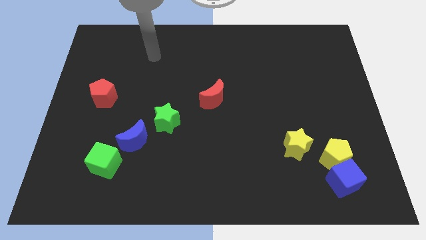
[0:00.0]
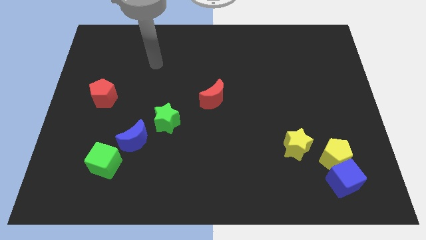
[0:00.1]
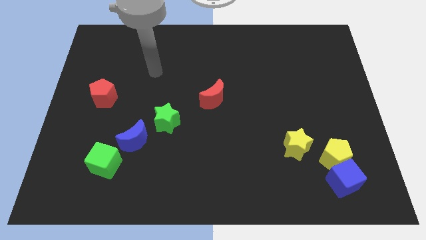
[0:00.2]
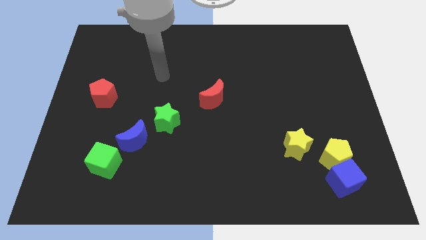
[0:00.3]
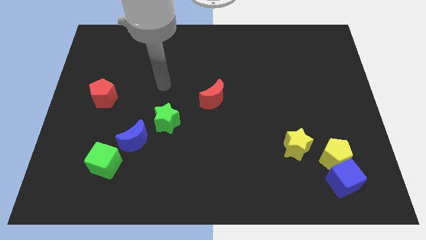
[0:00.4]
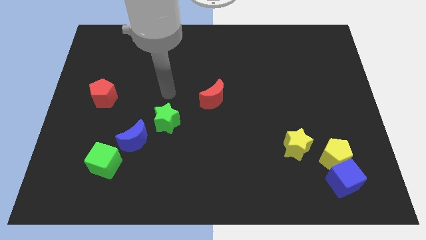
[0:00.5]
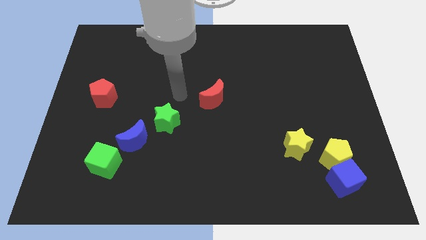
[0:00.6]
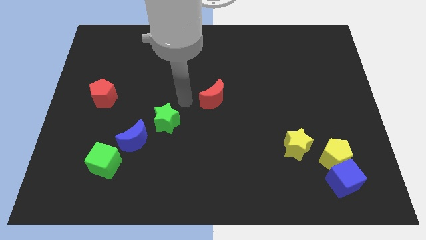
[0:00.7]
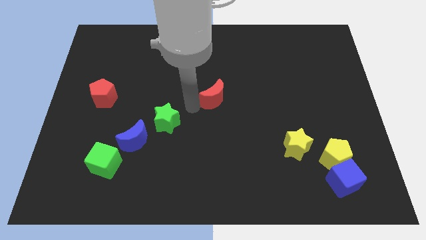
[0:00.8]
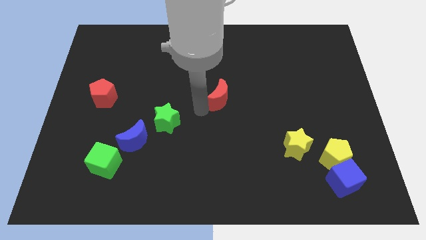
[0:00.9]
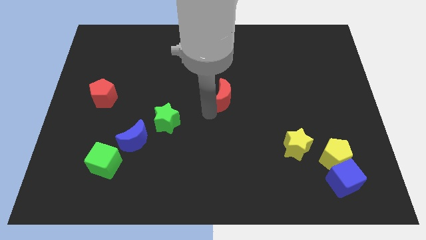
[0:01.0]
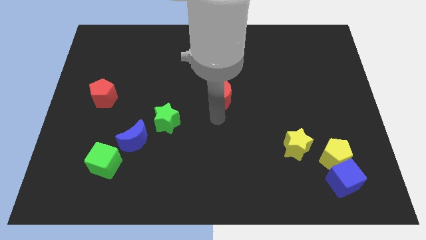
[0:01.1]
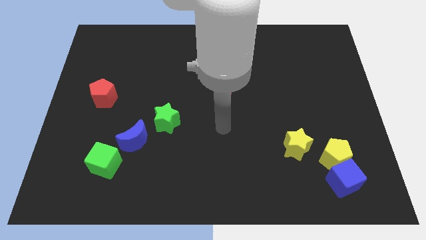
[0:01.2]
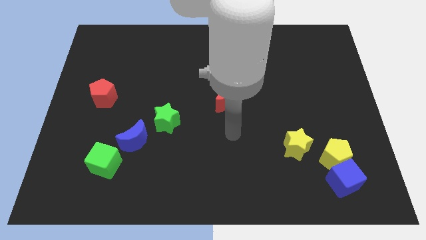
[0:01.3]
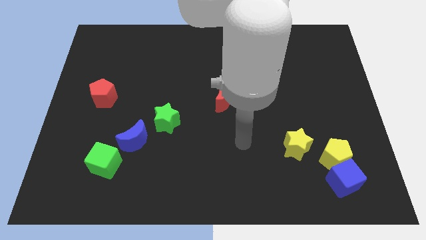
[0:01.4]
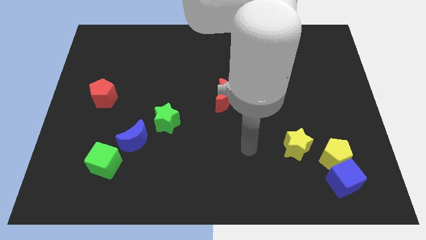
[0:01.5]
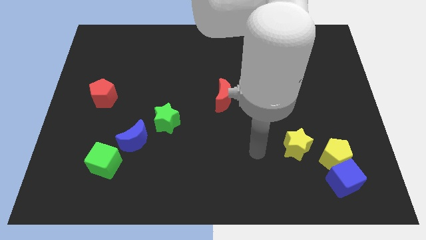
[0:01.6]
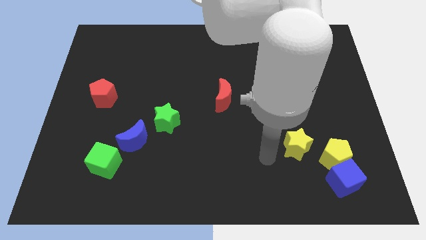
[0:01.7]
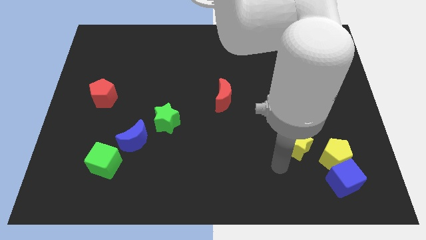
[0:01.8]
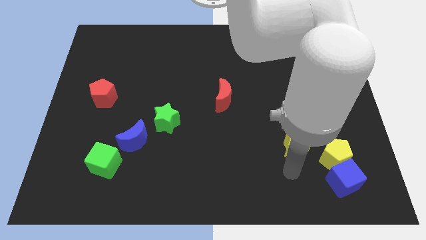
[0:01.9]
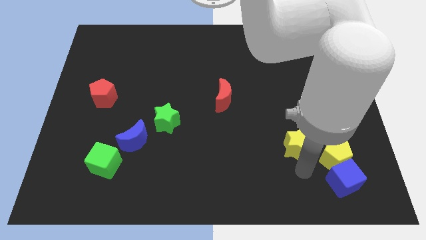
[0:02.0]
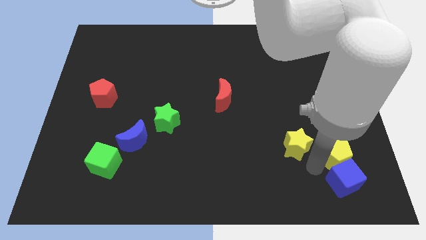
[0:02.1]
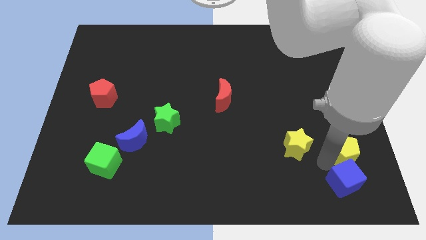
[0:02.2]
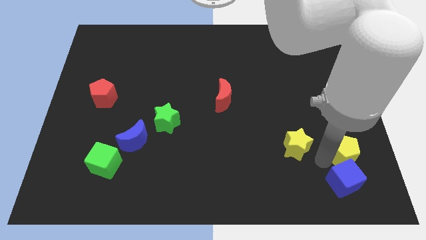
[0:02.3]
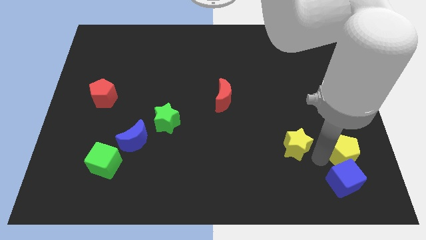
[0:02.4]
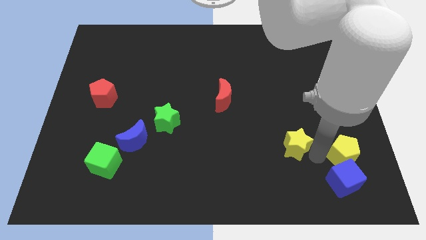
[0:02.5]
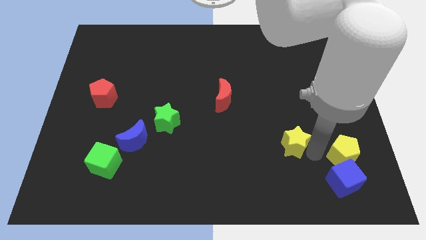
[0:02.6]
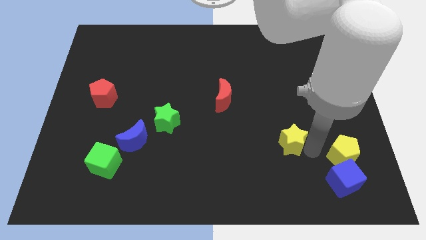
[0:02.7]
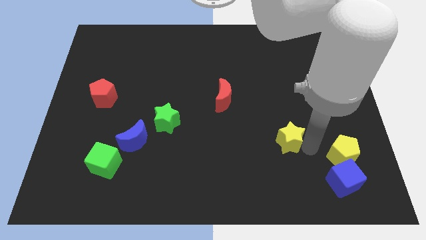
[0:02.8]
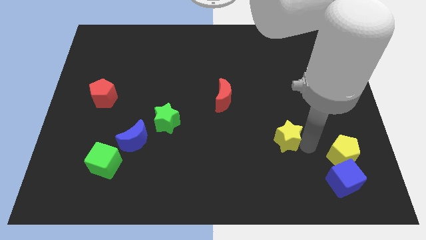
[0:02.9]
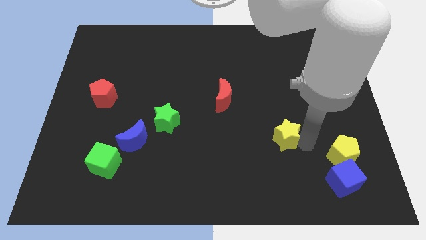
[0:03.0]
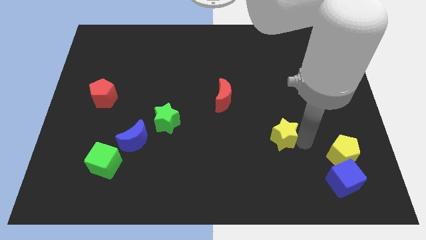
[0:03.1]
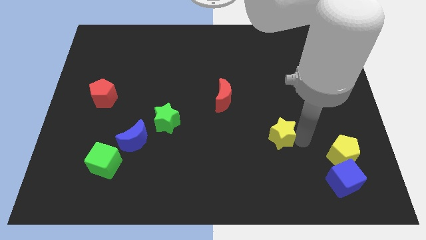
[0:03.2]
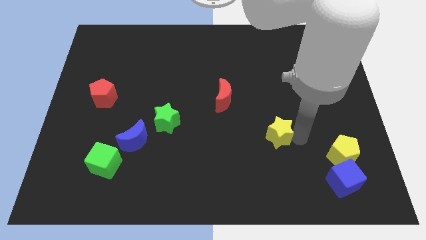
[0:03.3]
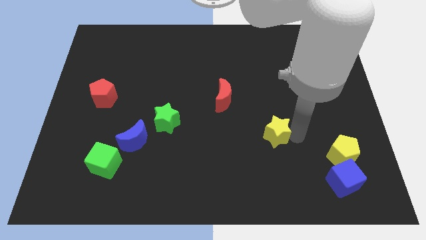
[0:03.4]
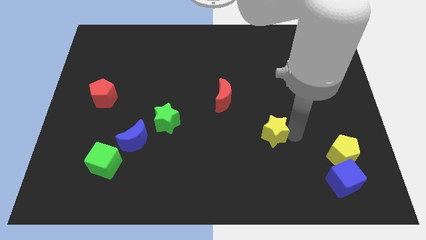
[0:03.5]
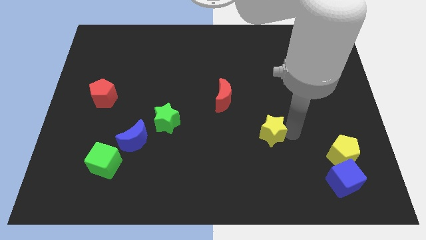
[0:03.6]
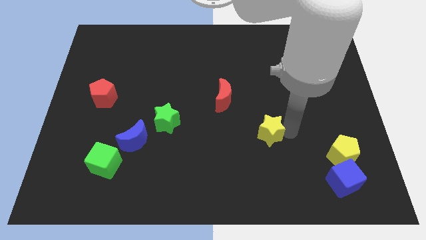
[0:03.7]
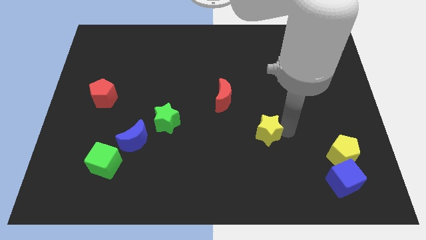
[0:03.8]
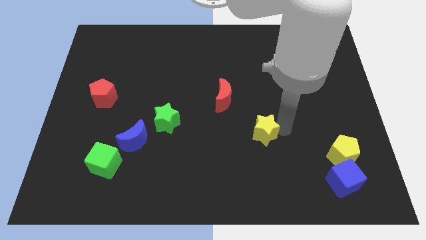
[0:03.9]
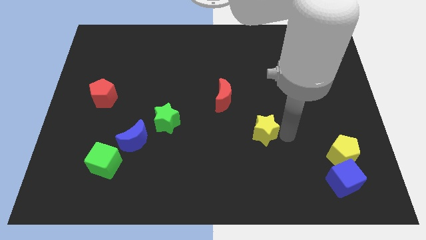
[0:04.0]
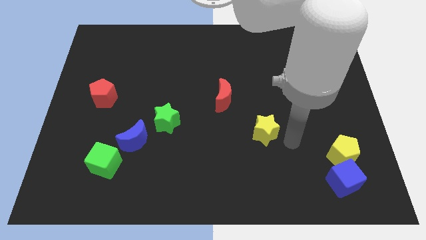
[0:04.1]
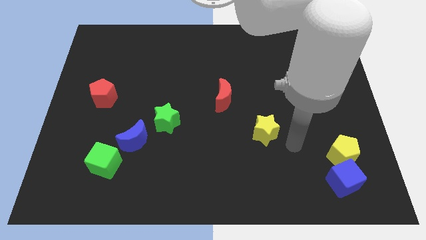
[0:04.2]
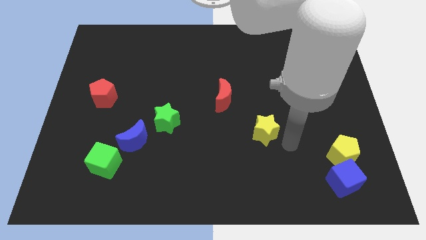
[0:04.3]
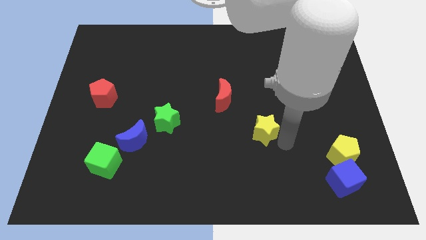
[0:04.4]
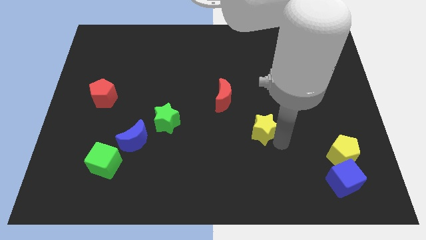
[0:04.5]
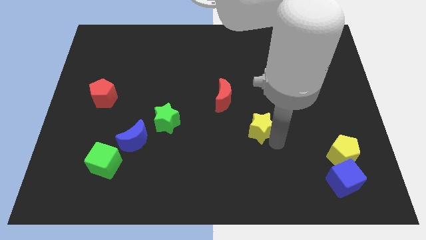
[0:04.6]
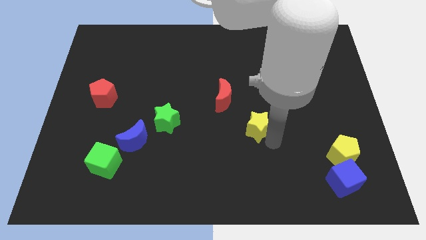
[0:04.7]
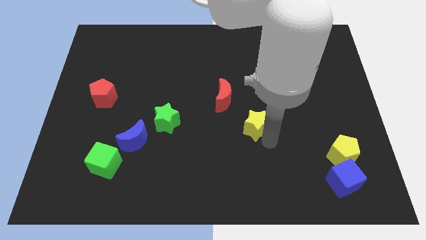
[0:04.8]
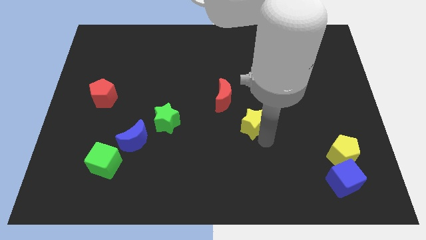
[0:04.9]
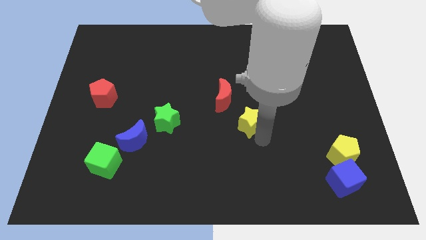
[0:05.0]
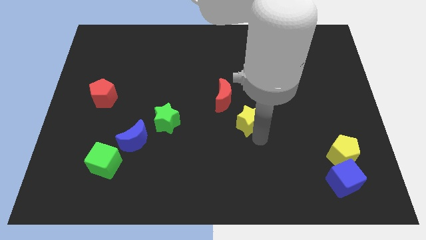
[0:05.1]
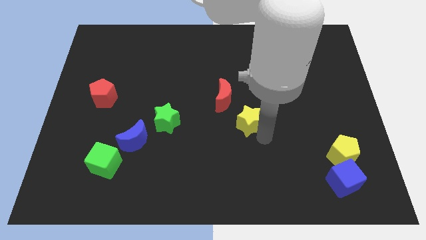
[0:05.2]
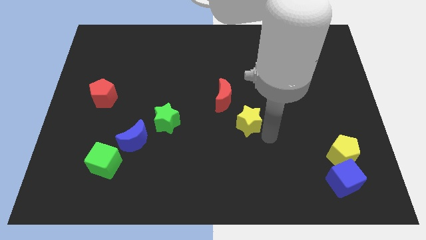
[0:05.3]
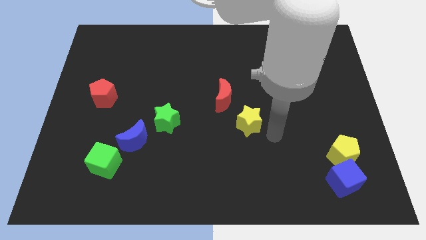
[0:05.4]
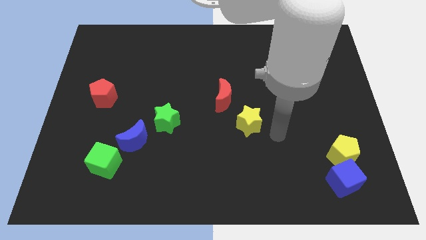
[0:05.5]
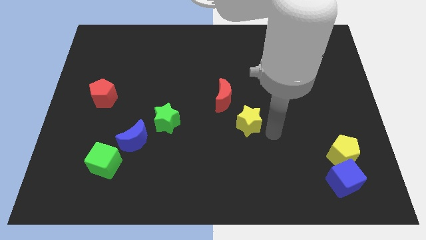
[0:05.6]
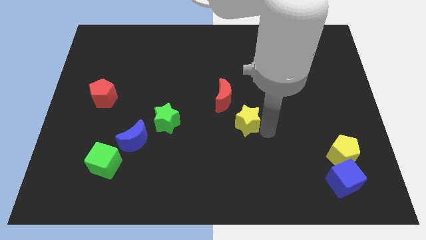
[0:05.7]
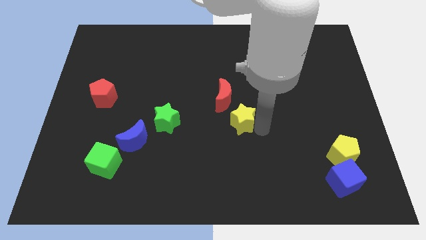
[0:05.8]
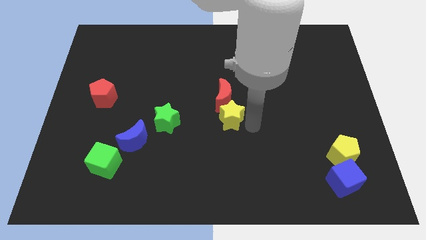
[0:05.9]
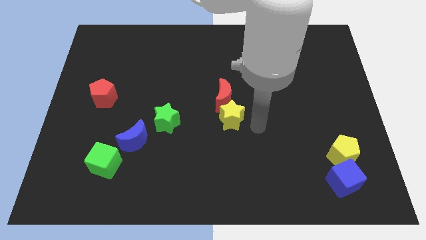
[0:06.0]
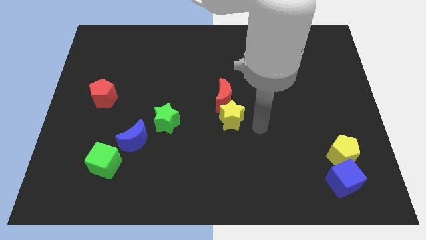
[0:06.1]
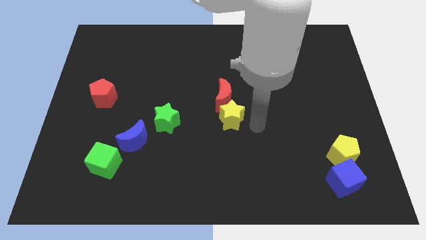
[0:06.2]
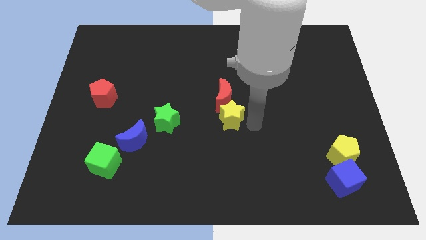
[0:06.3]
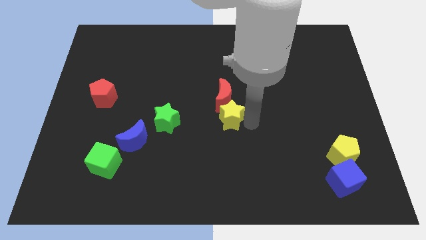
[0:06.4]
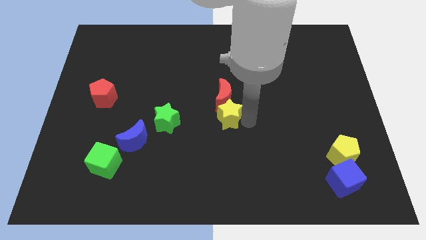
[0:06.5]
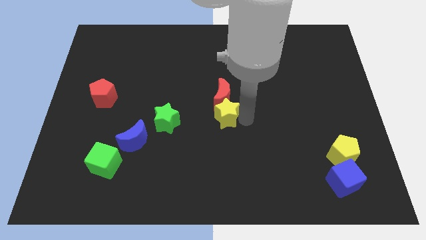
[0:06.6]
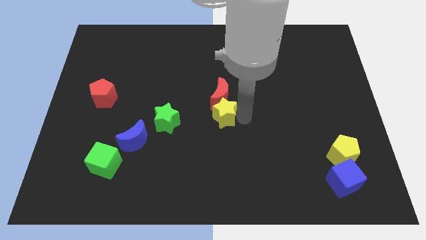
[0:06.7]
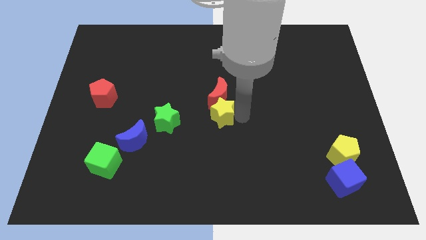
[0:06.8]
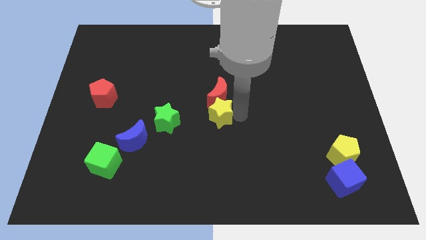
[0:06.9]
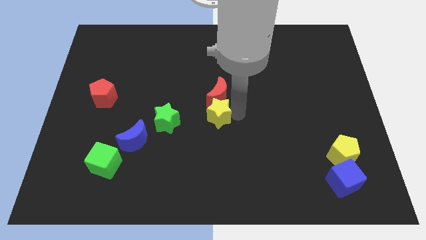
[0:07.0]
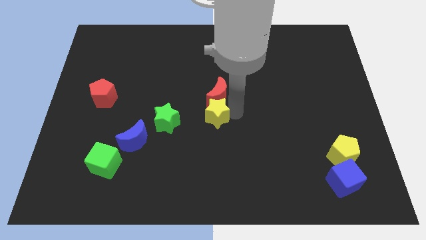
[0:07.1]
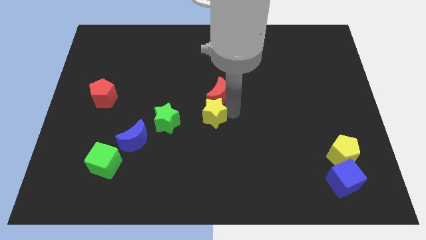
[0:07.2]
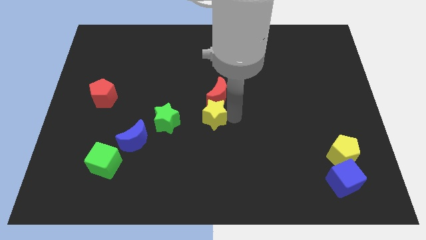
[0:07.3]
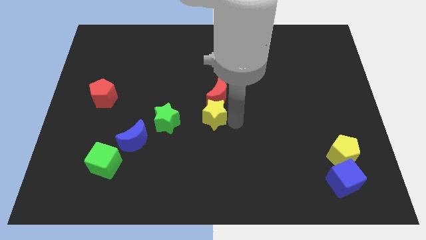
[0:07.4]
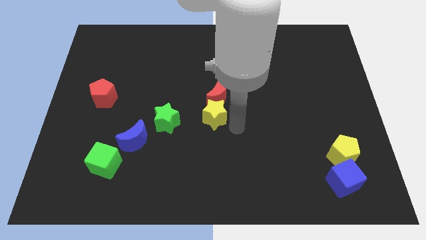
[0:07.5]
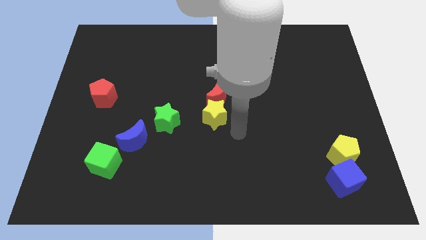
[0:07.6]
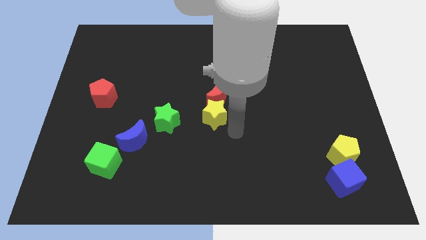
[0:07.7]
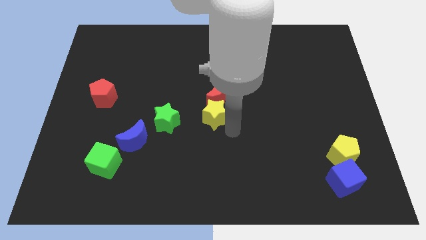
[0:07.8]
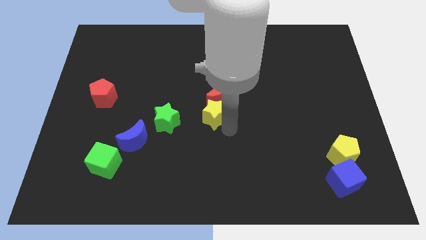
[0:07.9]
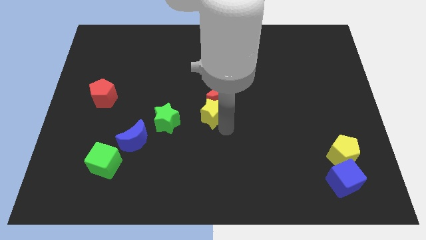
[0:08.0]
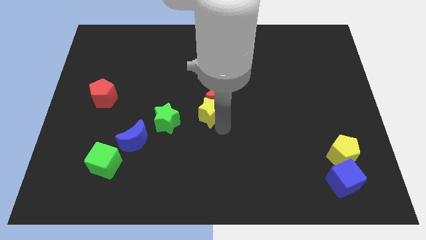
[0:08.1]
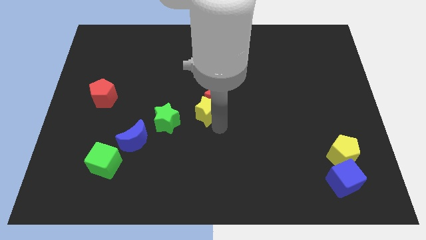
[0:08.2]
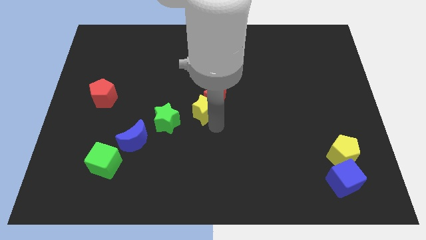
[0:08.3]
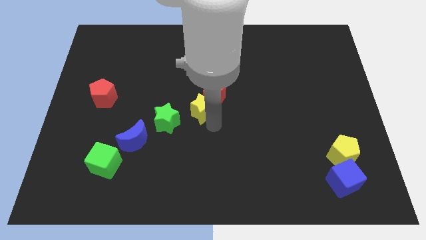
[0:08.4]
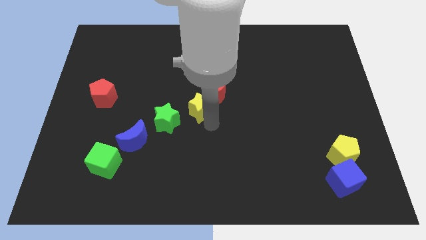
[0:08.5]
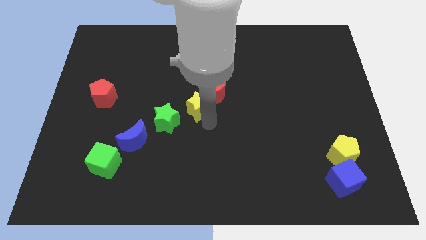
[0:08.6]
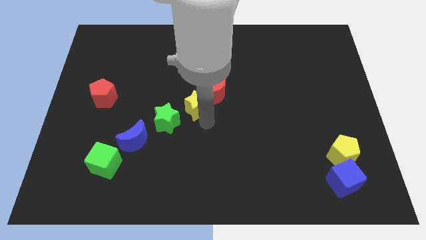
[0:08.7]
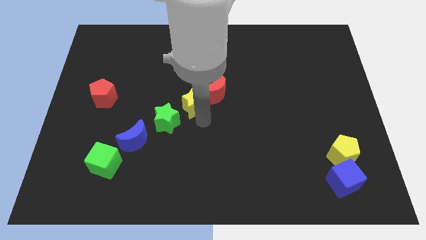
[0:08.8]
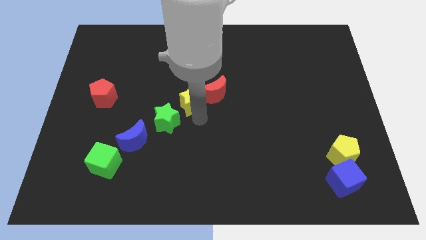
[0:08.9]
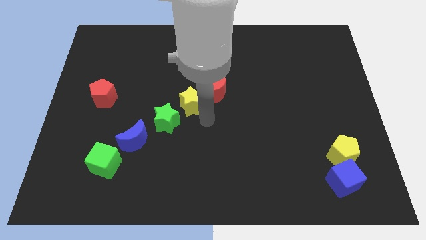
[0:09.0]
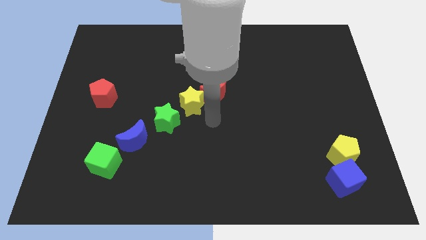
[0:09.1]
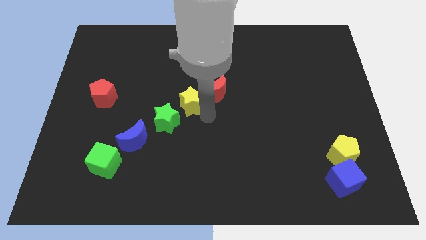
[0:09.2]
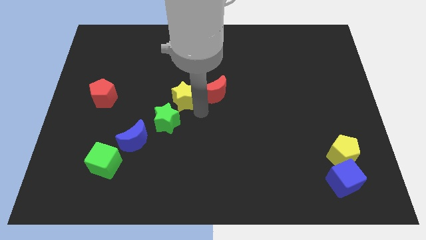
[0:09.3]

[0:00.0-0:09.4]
put the yellow star to the top of the green star
